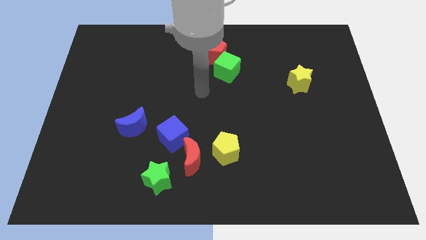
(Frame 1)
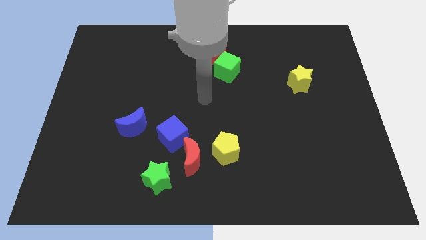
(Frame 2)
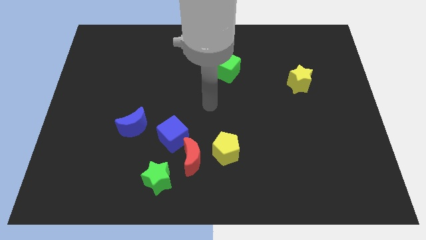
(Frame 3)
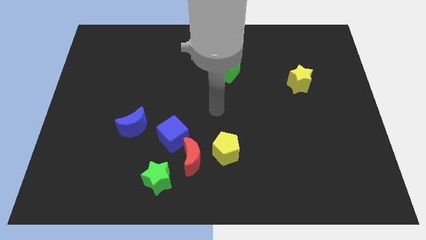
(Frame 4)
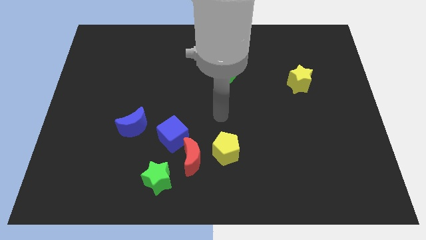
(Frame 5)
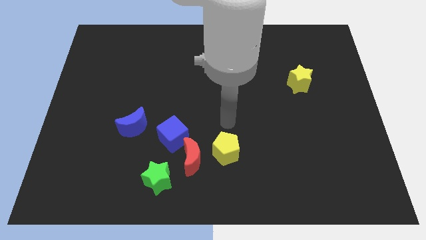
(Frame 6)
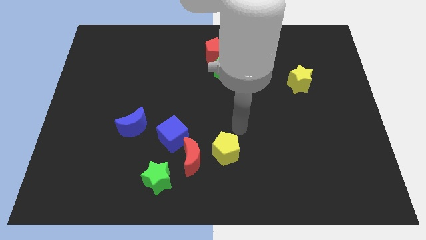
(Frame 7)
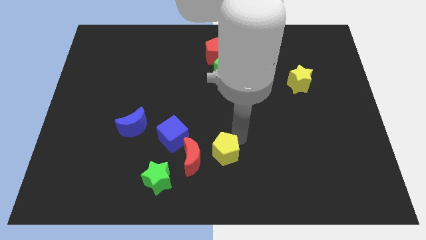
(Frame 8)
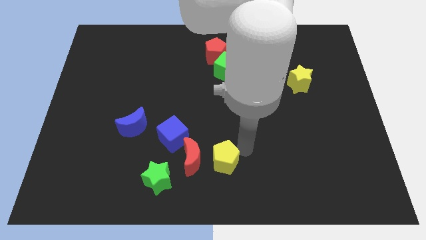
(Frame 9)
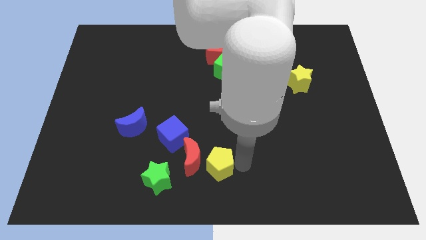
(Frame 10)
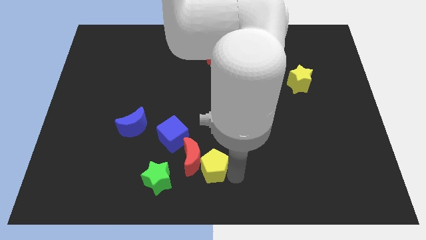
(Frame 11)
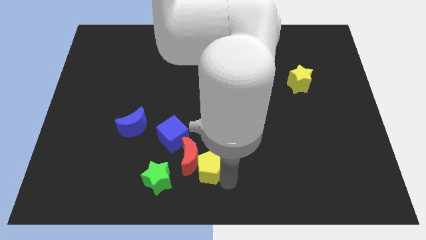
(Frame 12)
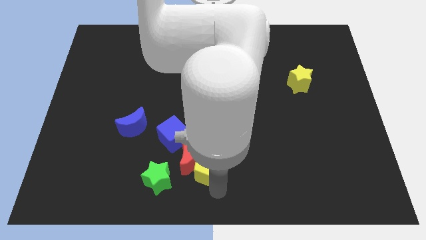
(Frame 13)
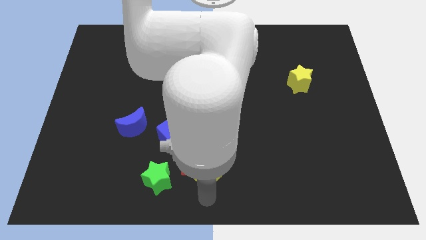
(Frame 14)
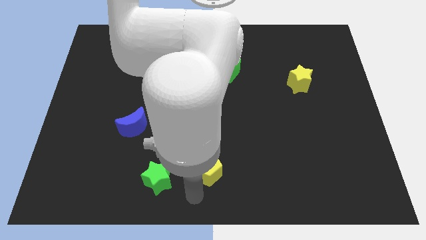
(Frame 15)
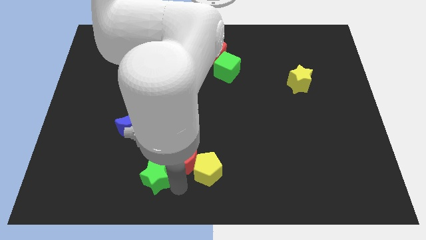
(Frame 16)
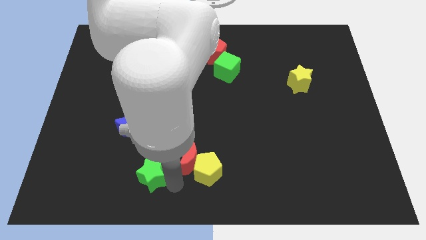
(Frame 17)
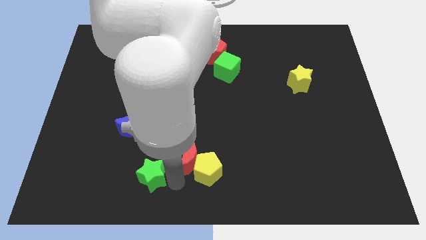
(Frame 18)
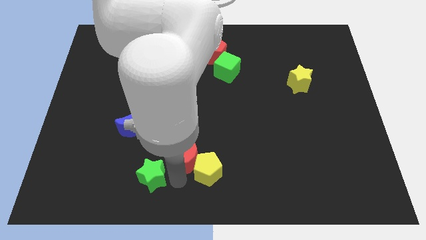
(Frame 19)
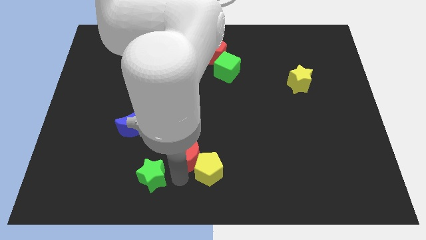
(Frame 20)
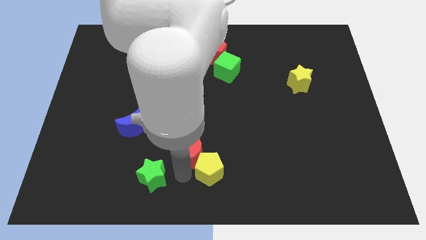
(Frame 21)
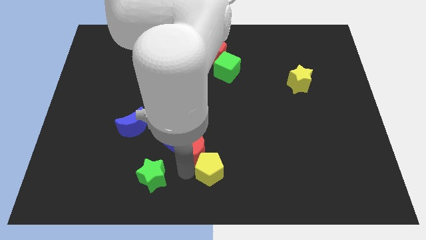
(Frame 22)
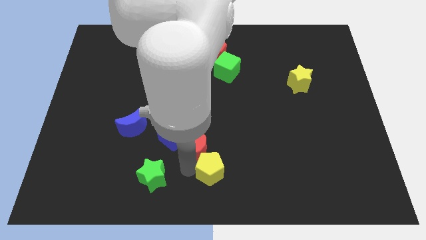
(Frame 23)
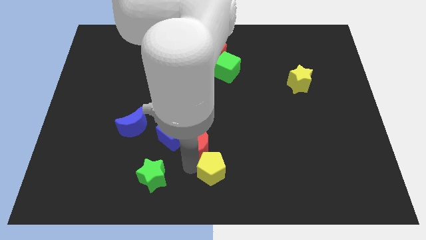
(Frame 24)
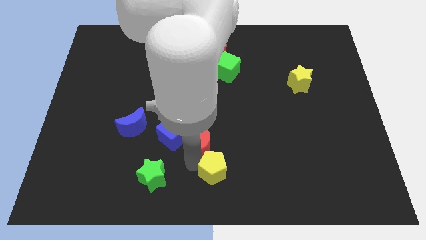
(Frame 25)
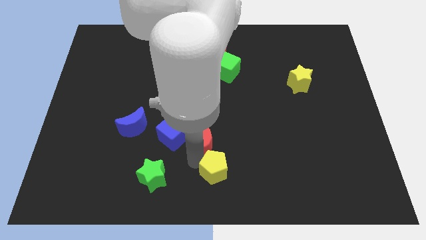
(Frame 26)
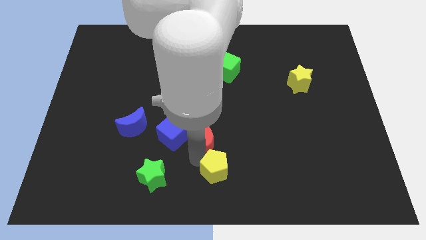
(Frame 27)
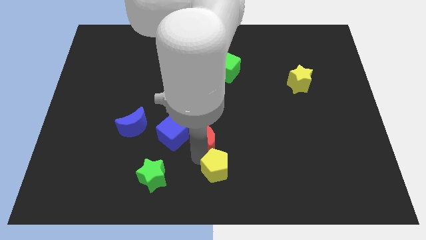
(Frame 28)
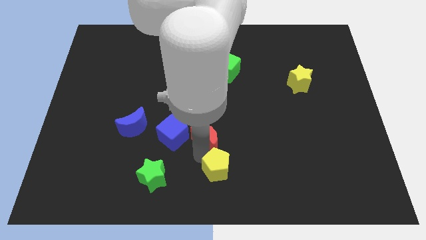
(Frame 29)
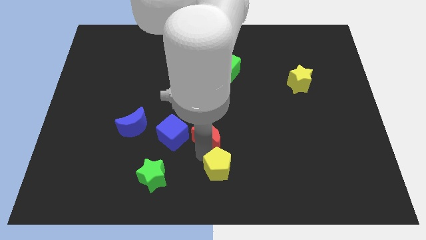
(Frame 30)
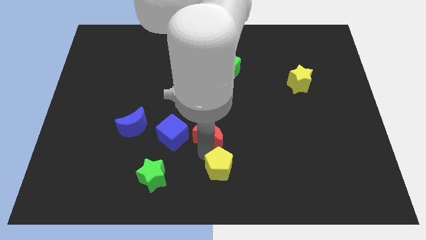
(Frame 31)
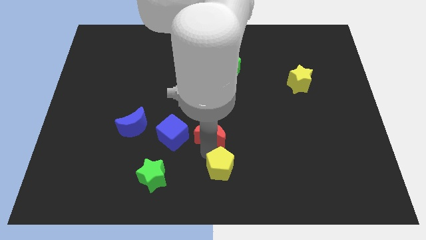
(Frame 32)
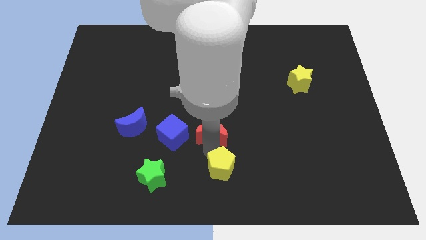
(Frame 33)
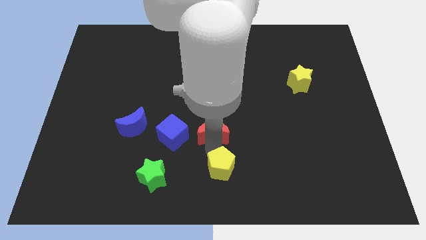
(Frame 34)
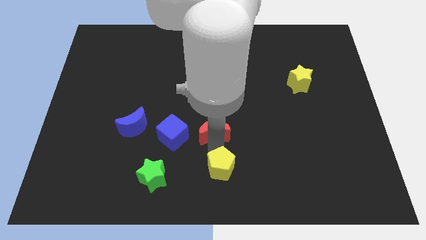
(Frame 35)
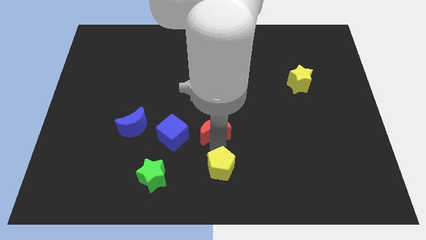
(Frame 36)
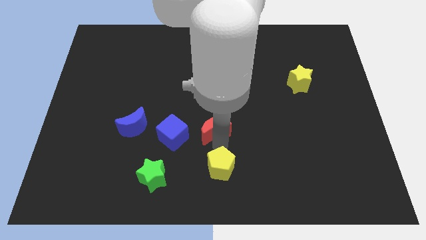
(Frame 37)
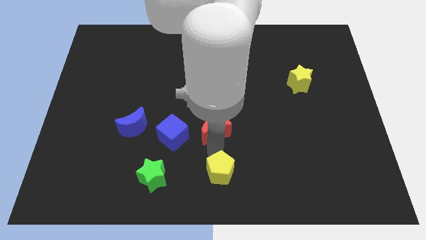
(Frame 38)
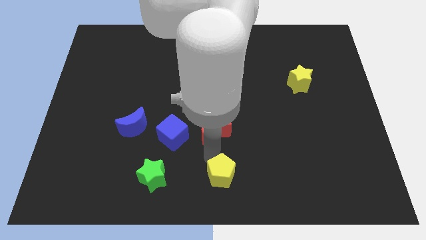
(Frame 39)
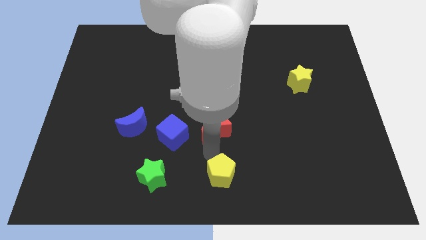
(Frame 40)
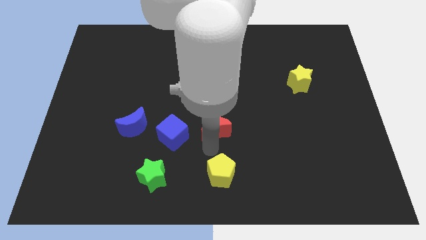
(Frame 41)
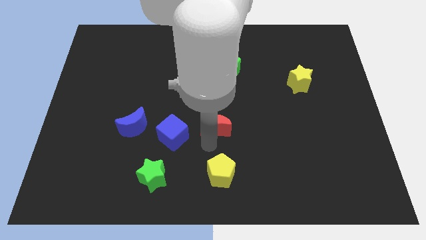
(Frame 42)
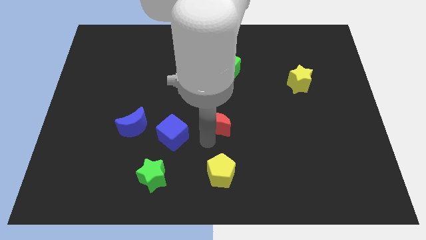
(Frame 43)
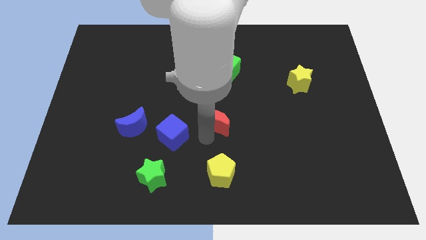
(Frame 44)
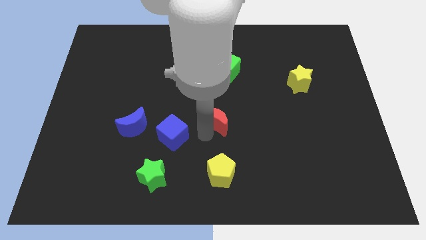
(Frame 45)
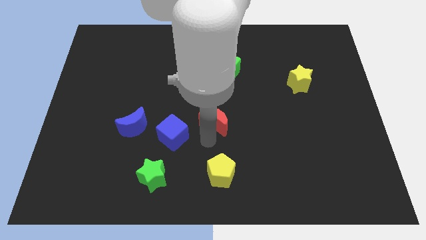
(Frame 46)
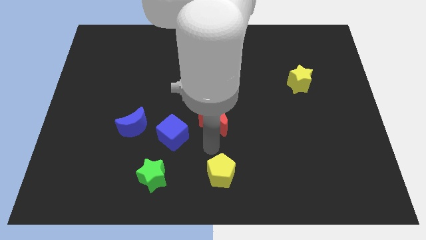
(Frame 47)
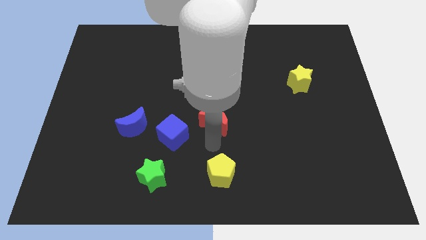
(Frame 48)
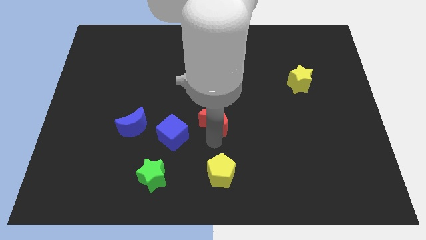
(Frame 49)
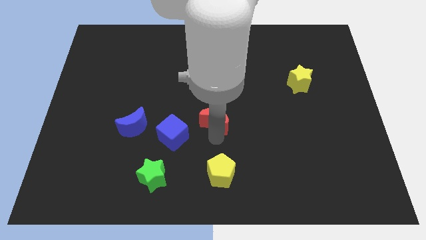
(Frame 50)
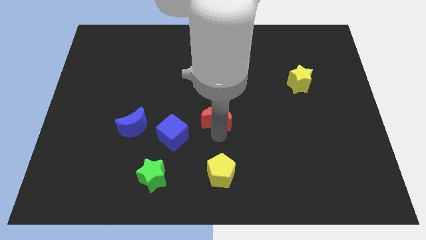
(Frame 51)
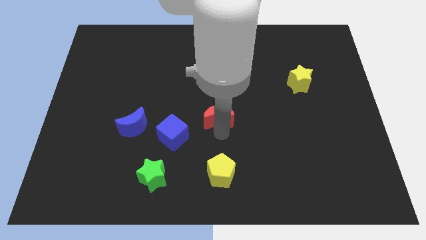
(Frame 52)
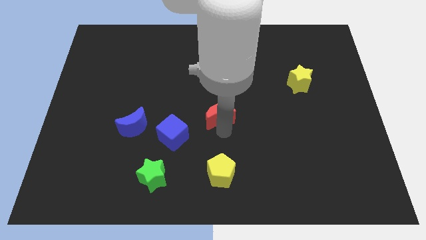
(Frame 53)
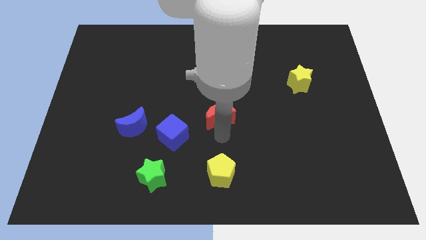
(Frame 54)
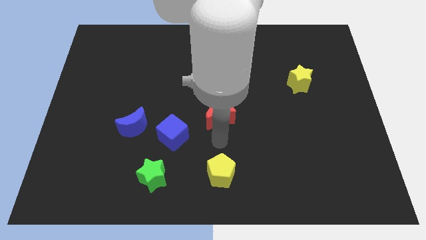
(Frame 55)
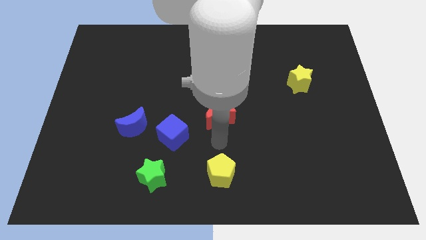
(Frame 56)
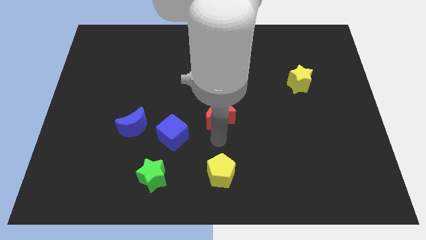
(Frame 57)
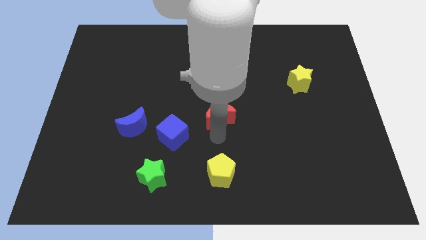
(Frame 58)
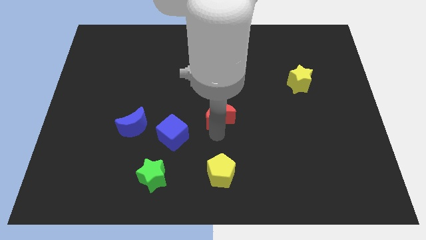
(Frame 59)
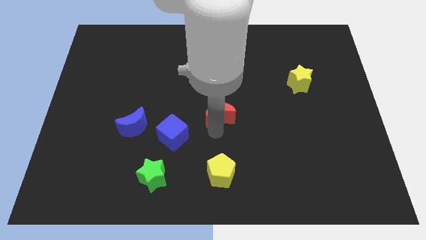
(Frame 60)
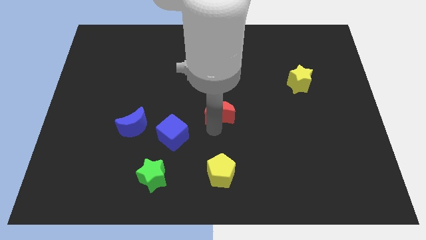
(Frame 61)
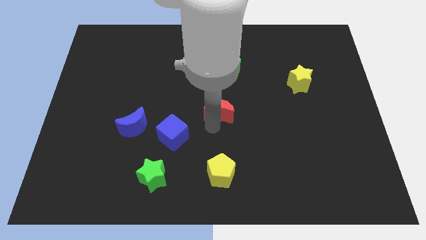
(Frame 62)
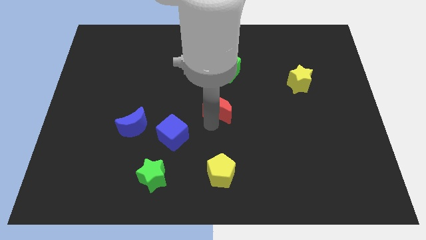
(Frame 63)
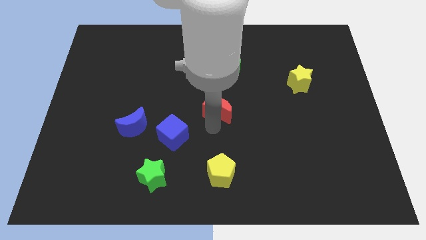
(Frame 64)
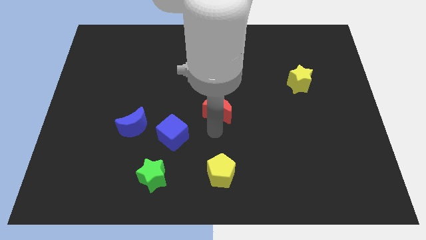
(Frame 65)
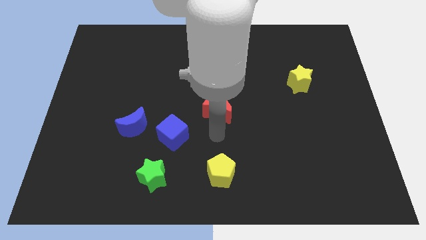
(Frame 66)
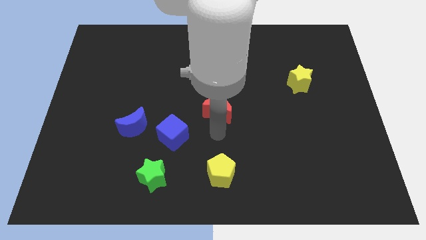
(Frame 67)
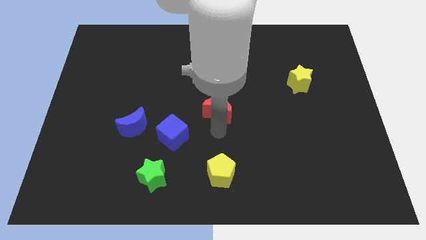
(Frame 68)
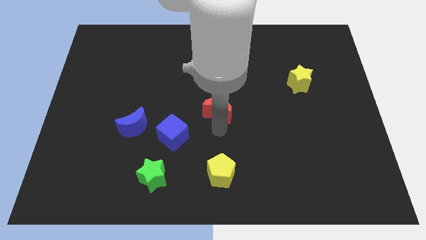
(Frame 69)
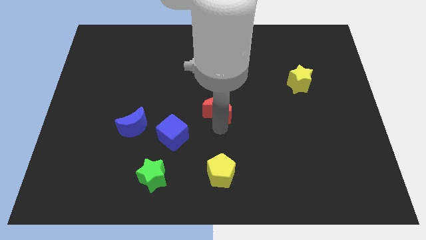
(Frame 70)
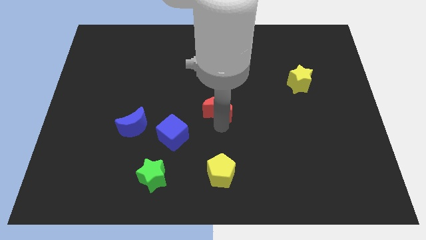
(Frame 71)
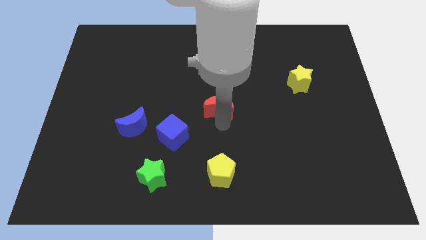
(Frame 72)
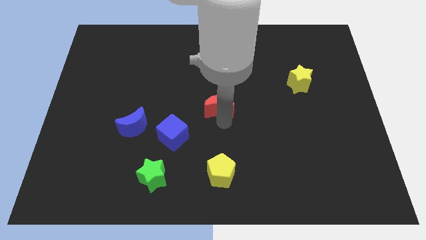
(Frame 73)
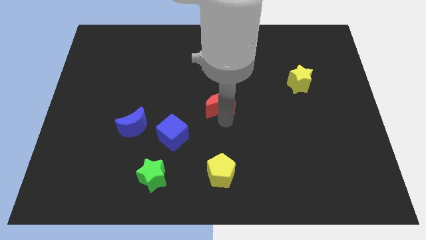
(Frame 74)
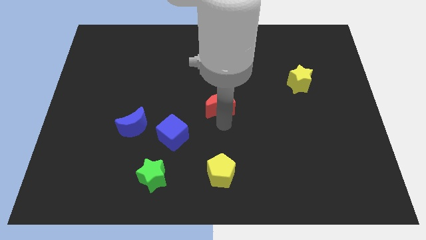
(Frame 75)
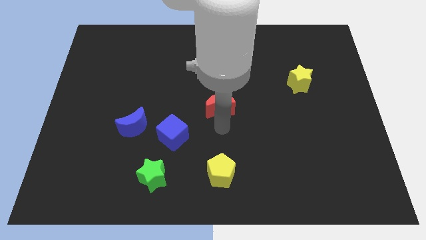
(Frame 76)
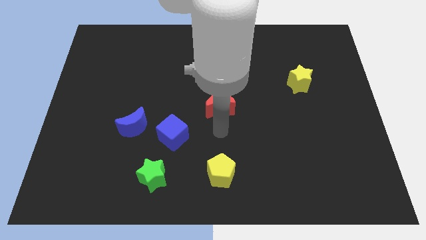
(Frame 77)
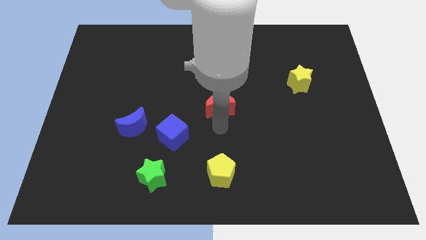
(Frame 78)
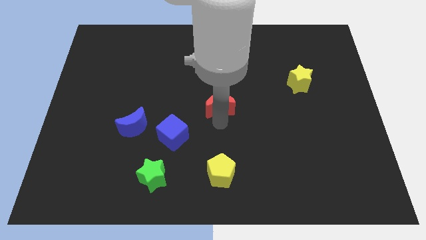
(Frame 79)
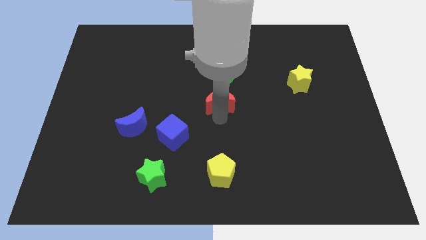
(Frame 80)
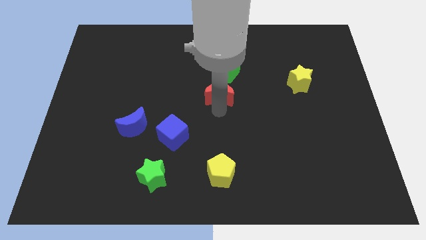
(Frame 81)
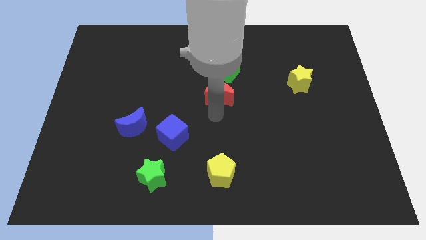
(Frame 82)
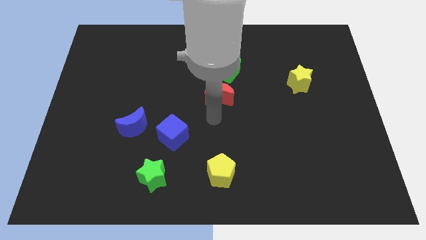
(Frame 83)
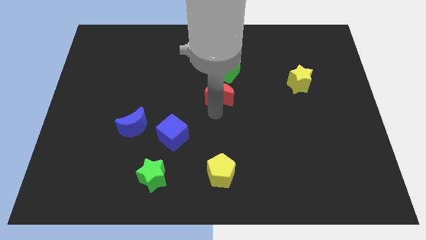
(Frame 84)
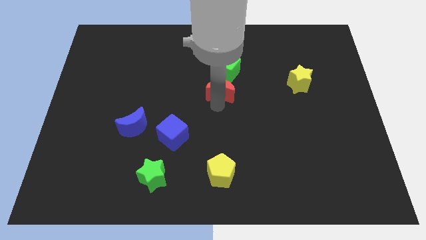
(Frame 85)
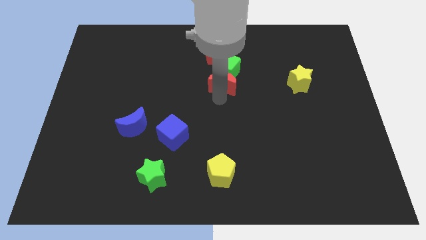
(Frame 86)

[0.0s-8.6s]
slide the red moon close to the green cube
